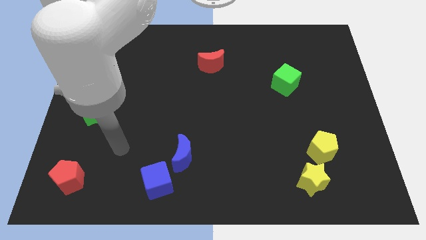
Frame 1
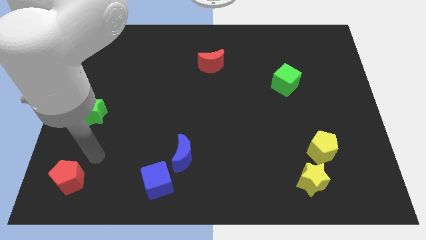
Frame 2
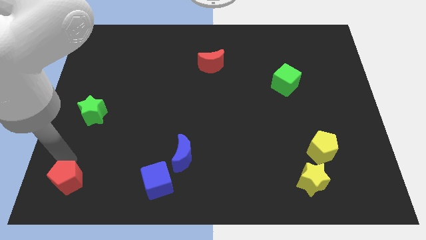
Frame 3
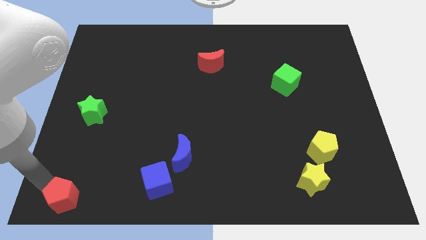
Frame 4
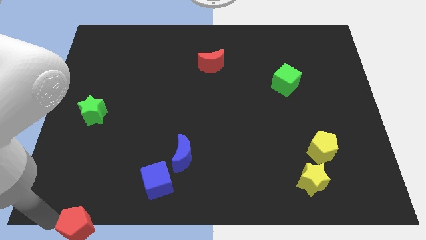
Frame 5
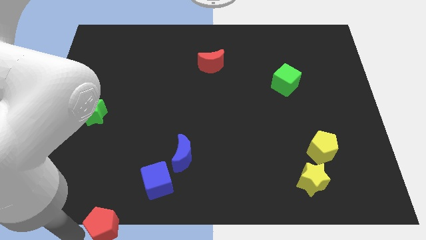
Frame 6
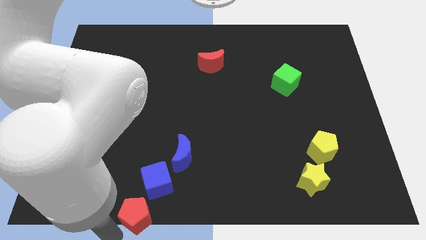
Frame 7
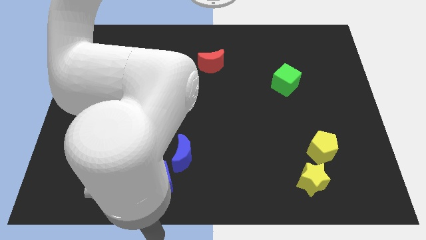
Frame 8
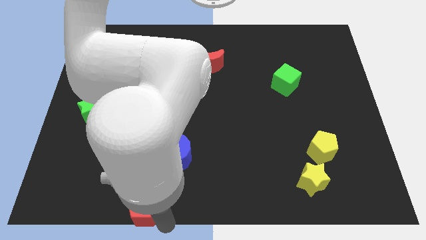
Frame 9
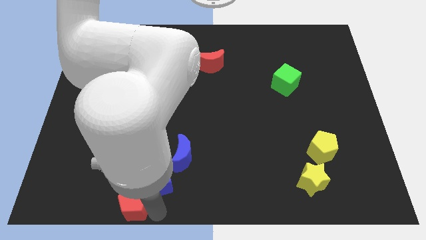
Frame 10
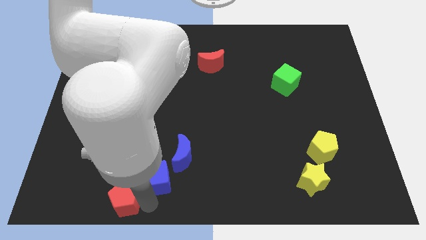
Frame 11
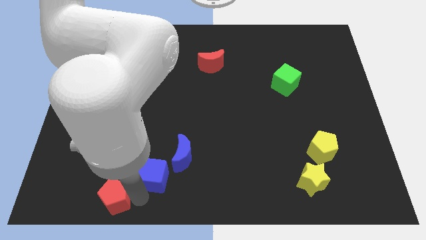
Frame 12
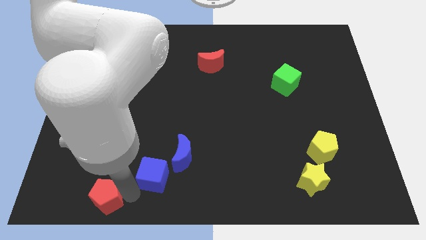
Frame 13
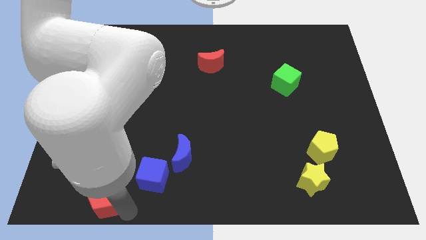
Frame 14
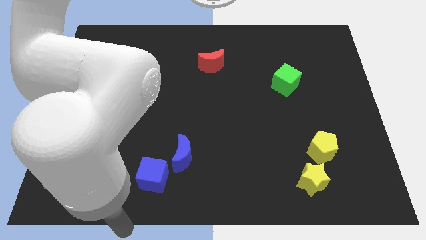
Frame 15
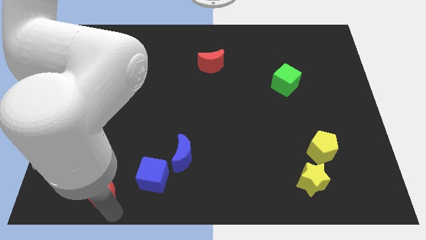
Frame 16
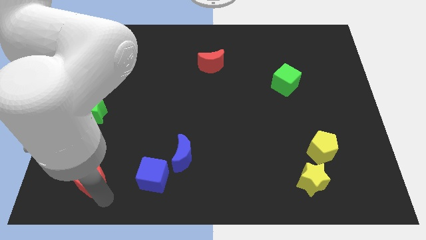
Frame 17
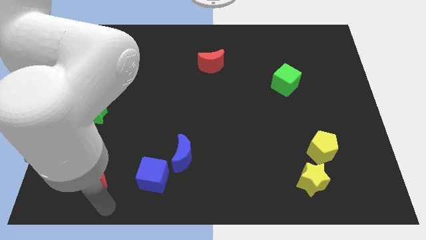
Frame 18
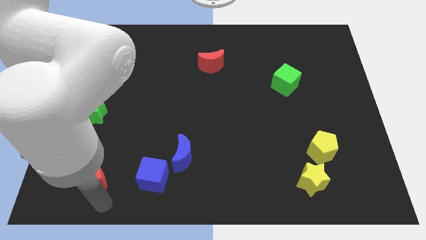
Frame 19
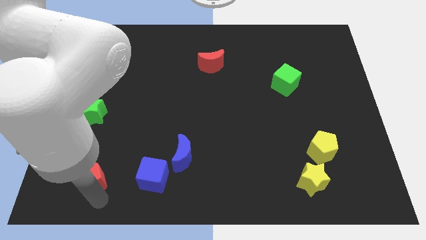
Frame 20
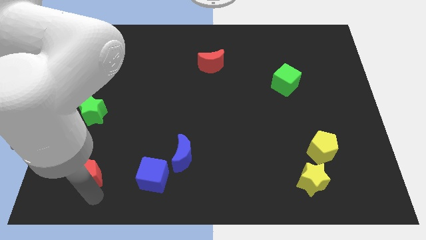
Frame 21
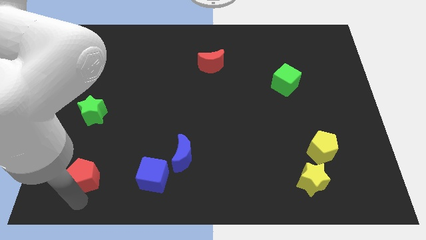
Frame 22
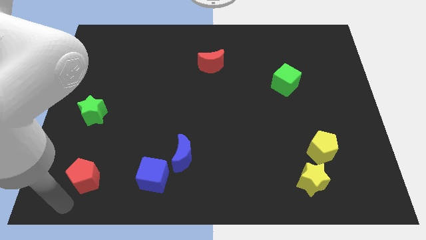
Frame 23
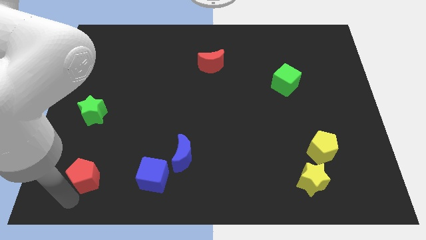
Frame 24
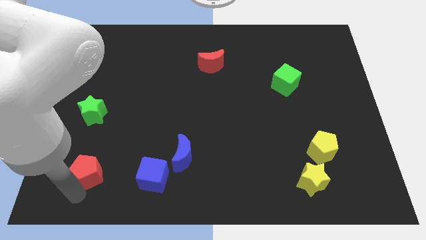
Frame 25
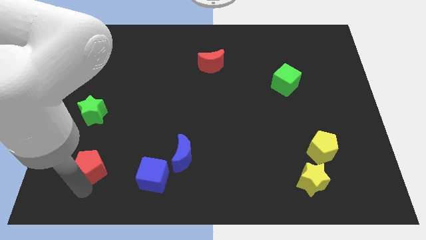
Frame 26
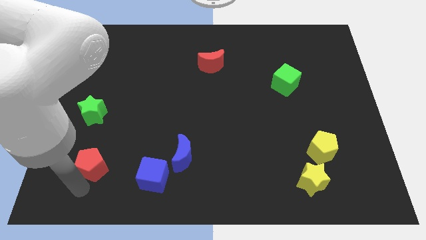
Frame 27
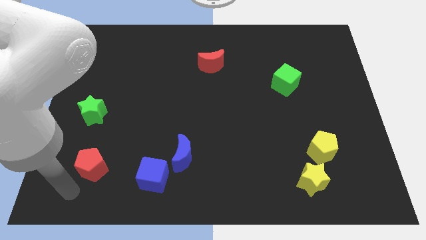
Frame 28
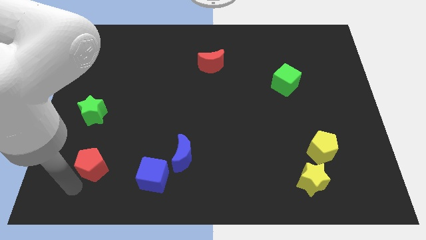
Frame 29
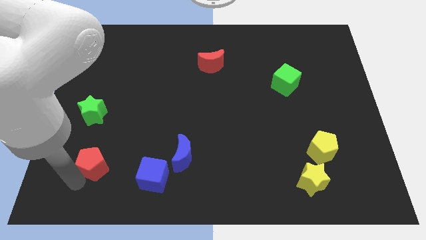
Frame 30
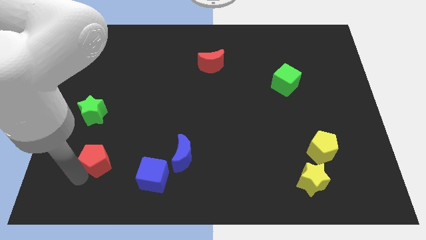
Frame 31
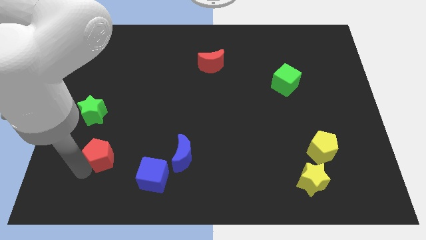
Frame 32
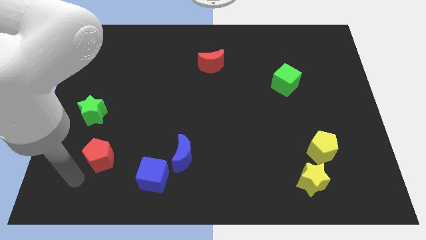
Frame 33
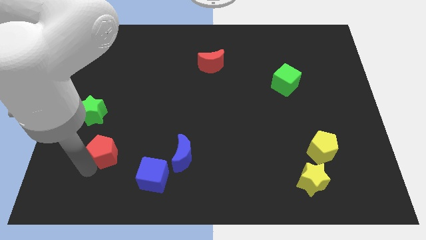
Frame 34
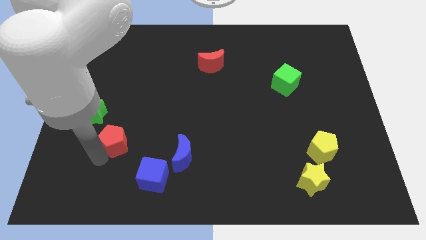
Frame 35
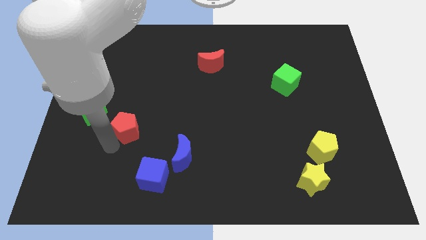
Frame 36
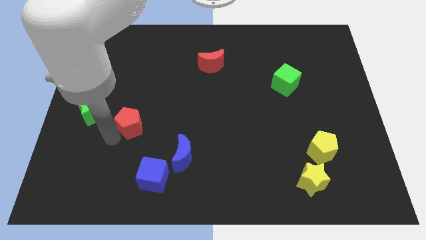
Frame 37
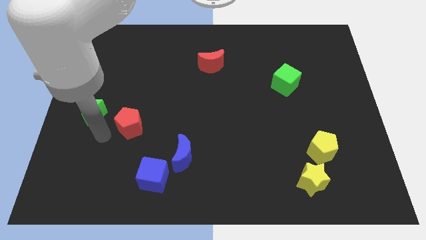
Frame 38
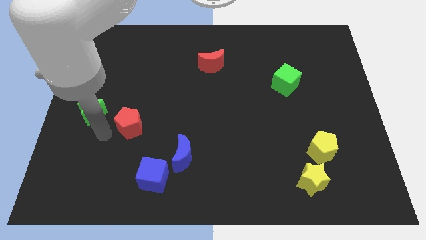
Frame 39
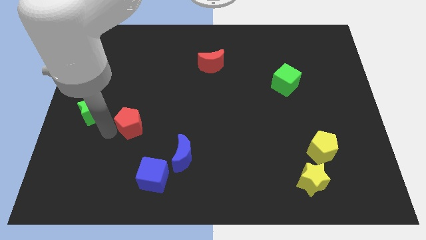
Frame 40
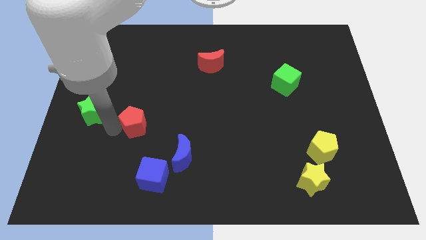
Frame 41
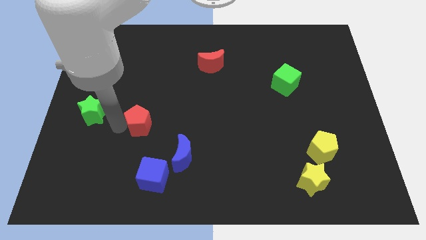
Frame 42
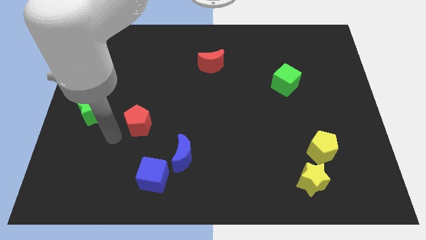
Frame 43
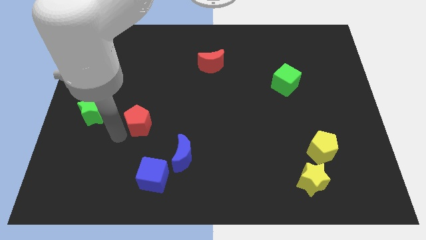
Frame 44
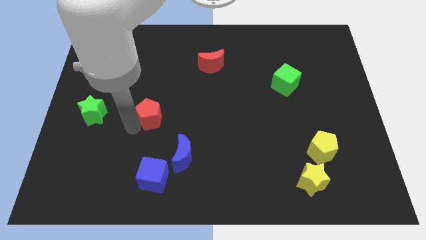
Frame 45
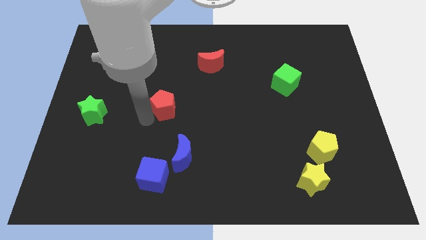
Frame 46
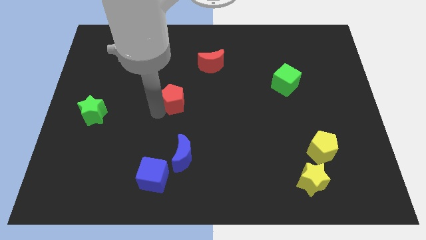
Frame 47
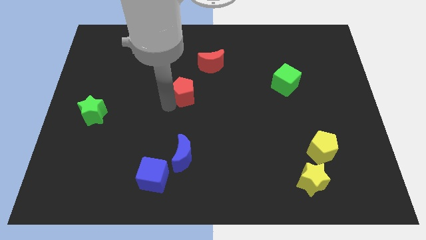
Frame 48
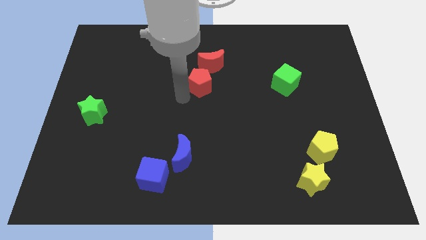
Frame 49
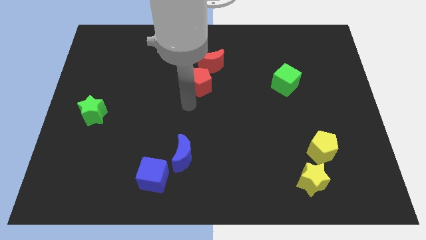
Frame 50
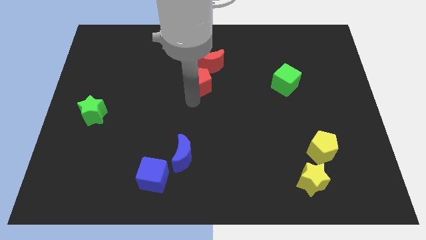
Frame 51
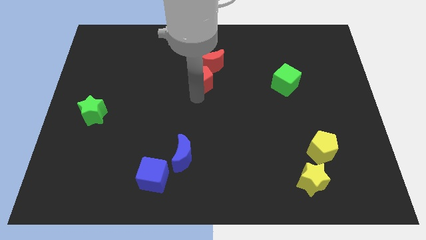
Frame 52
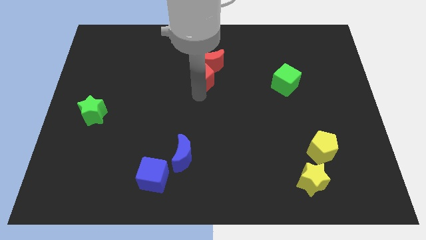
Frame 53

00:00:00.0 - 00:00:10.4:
put the red pentagon to the red moon

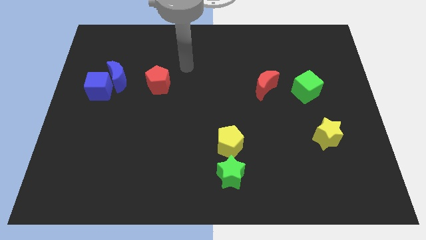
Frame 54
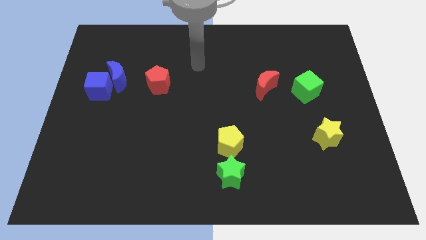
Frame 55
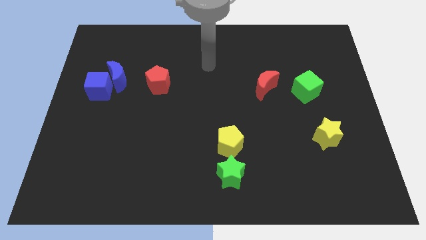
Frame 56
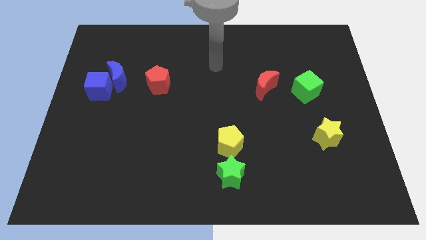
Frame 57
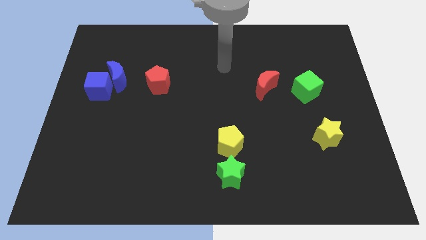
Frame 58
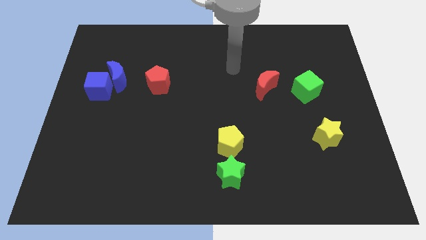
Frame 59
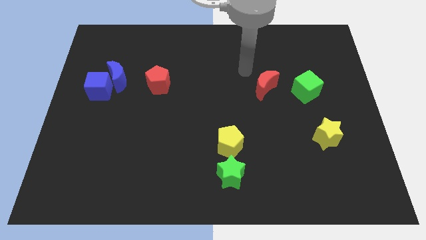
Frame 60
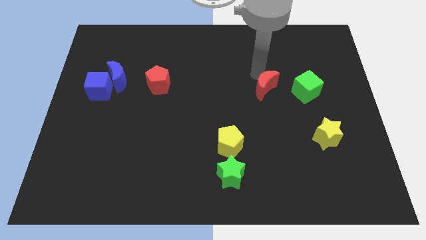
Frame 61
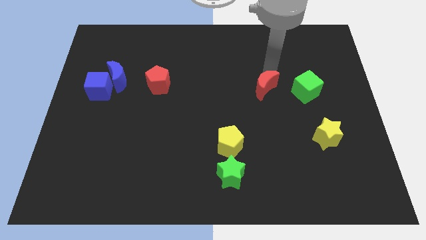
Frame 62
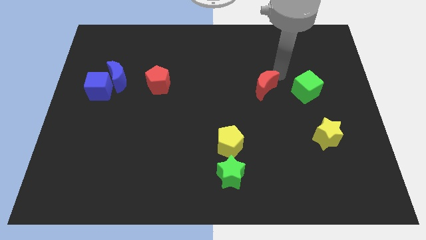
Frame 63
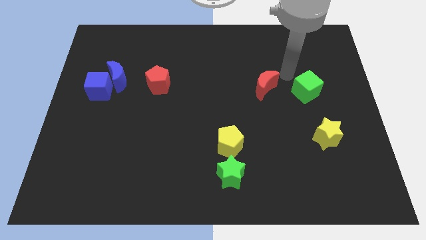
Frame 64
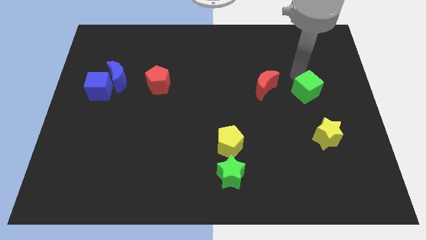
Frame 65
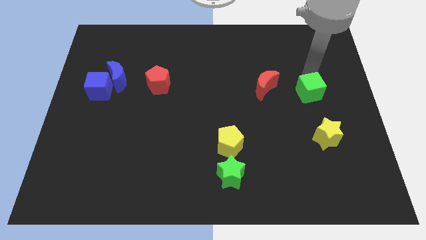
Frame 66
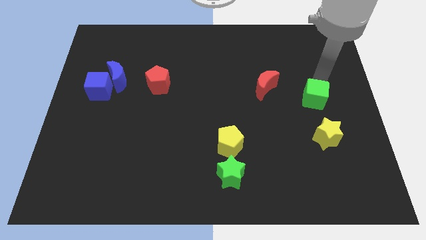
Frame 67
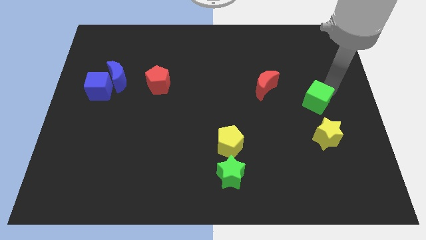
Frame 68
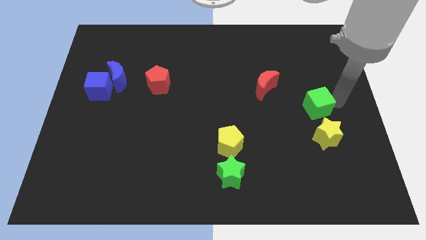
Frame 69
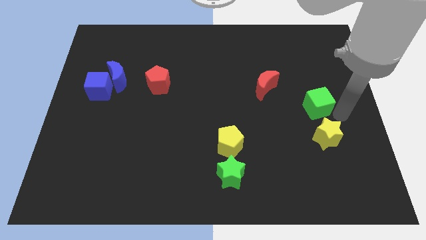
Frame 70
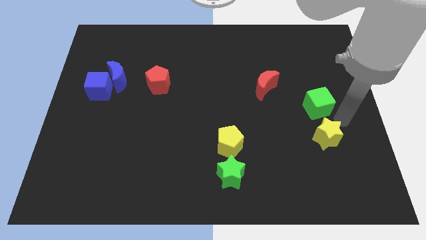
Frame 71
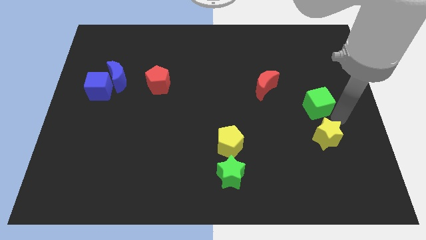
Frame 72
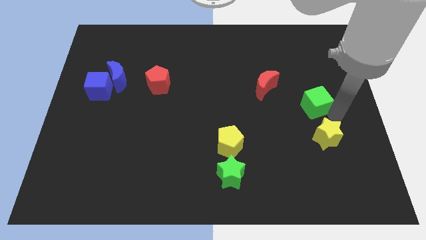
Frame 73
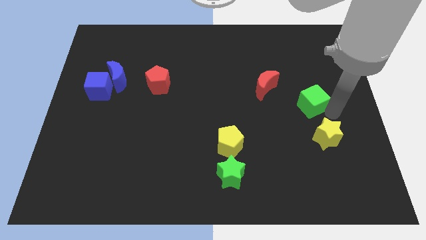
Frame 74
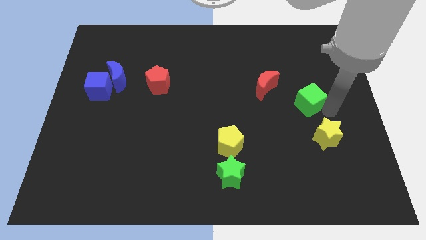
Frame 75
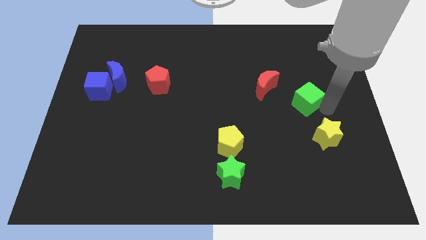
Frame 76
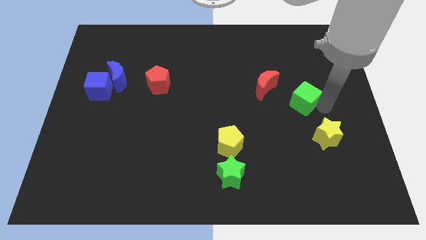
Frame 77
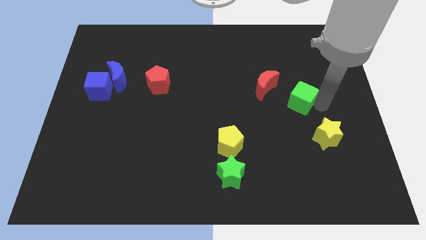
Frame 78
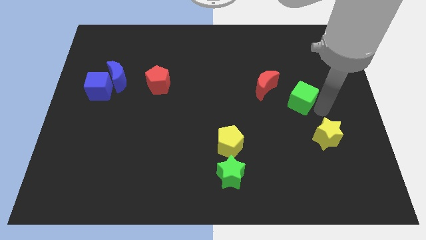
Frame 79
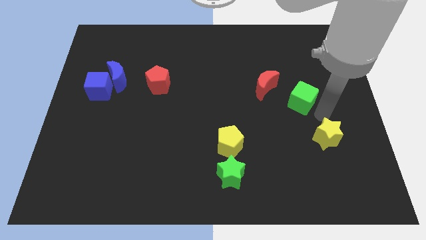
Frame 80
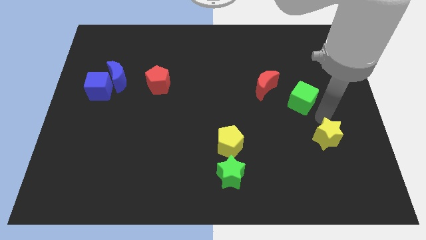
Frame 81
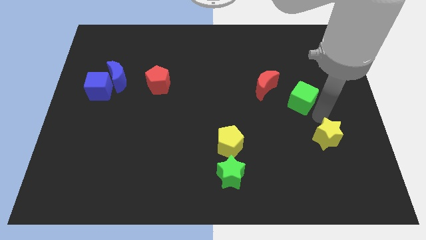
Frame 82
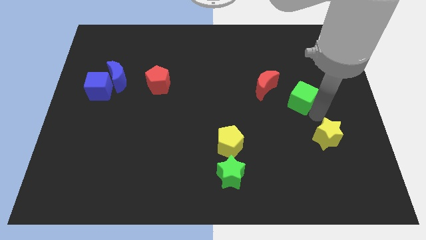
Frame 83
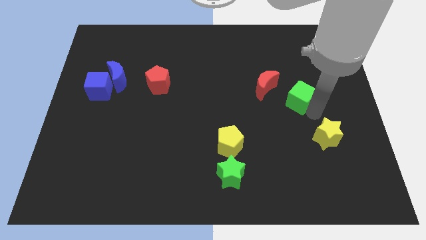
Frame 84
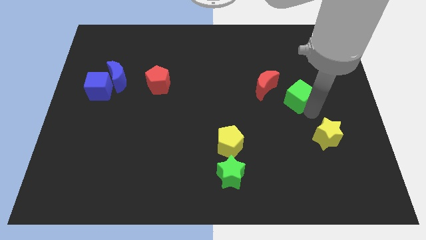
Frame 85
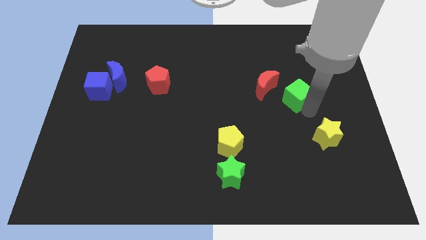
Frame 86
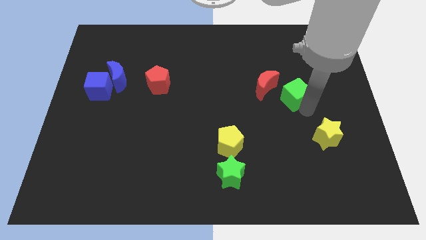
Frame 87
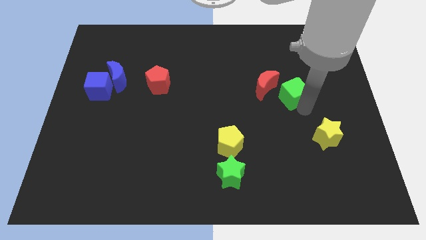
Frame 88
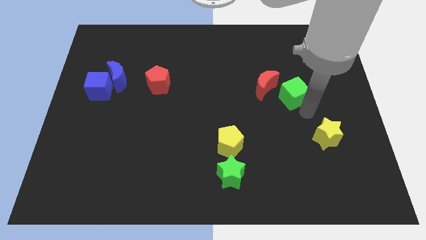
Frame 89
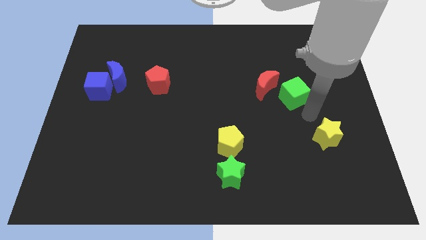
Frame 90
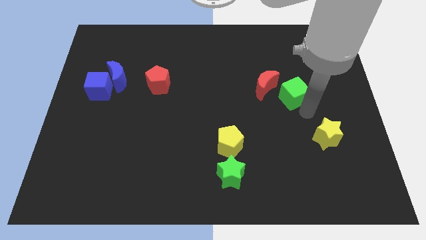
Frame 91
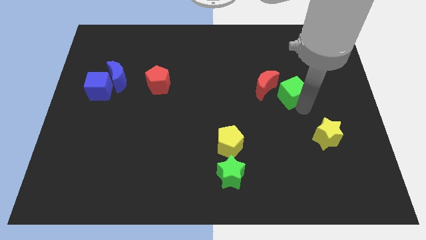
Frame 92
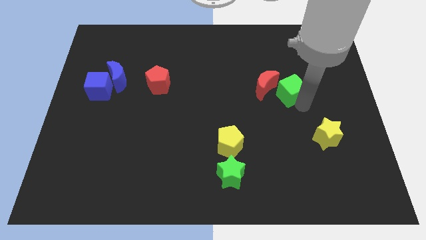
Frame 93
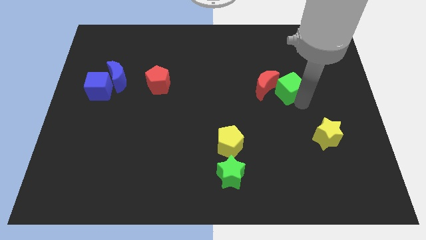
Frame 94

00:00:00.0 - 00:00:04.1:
put the green cube towards the red moon
